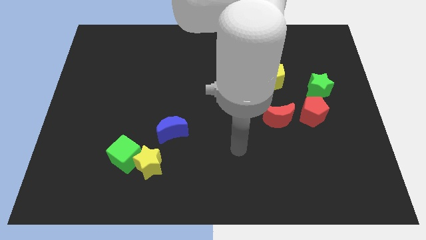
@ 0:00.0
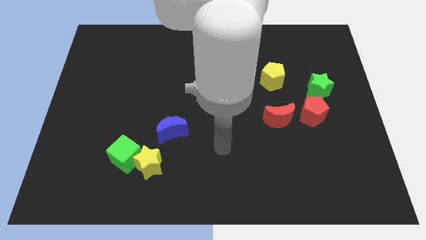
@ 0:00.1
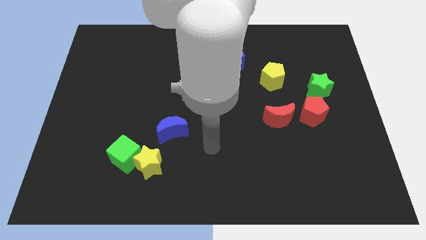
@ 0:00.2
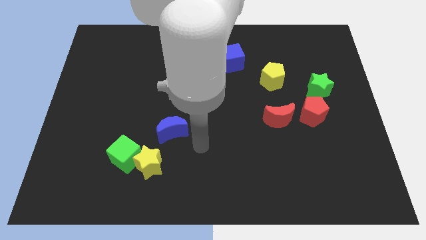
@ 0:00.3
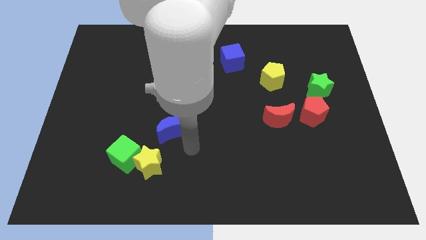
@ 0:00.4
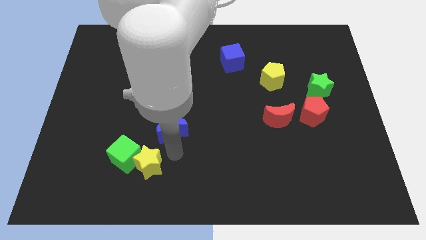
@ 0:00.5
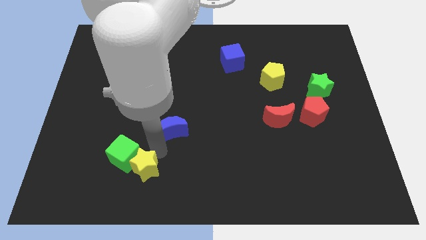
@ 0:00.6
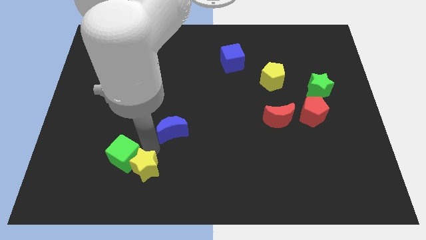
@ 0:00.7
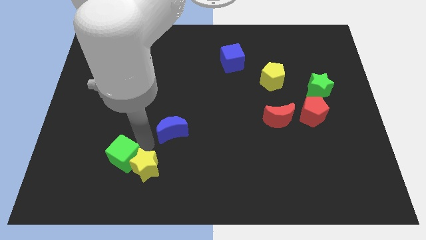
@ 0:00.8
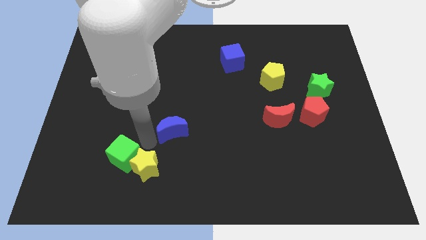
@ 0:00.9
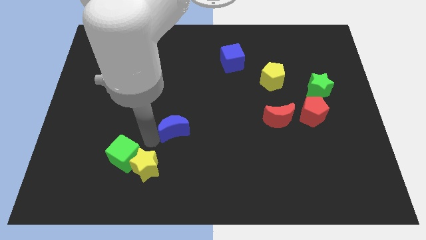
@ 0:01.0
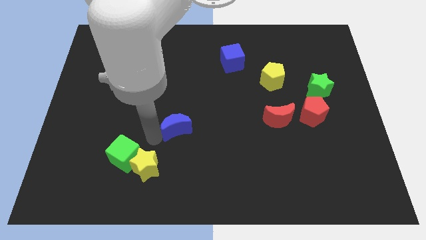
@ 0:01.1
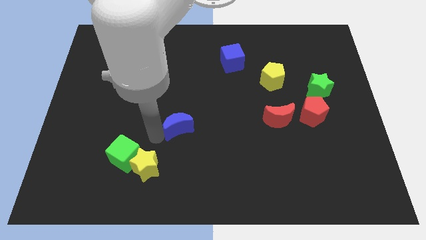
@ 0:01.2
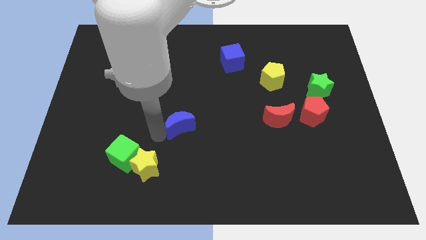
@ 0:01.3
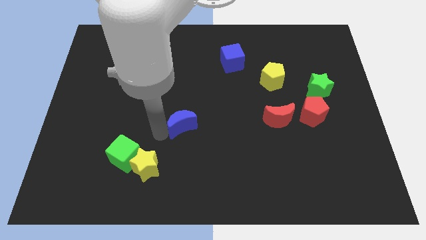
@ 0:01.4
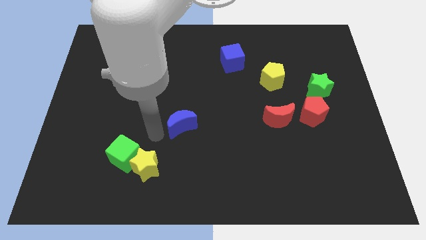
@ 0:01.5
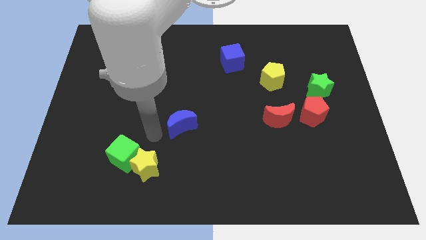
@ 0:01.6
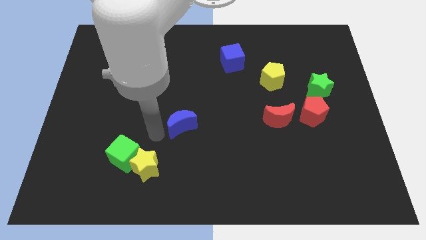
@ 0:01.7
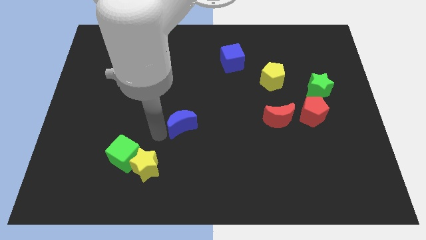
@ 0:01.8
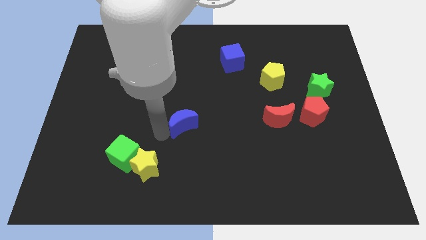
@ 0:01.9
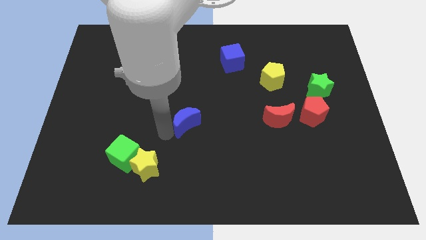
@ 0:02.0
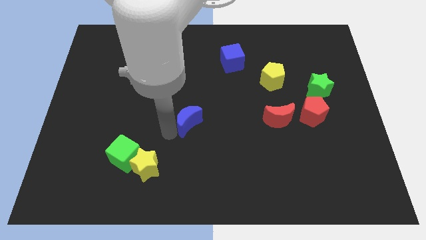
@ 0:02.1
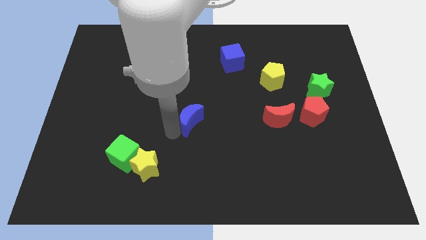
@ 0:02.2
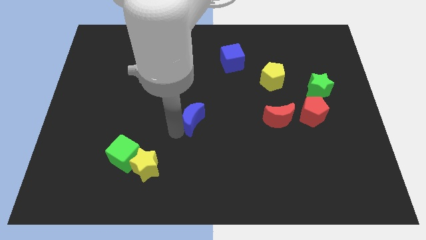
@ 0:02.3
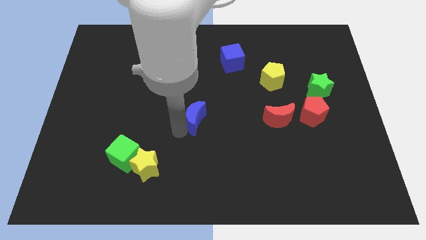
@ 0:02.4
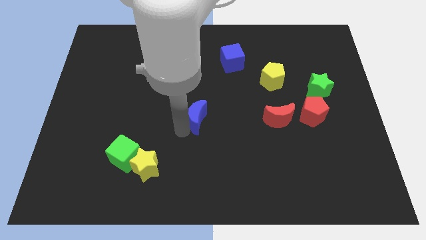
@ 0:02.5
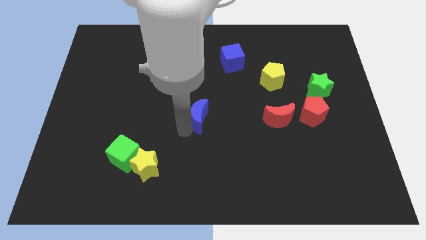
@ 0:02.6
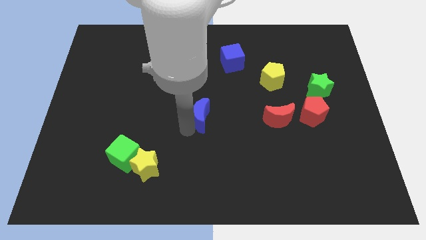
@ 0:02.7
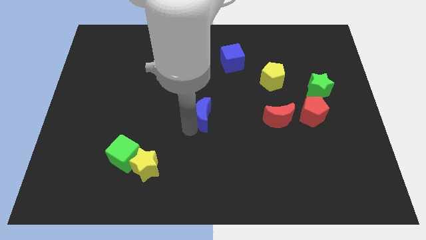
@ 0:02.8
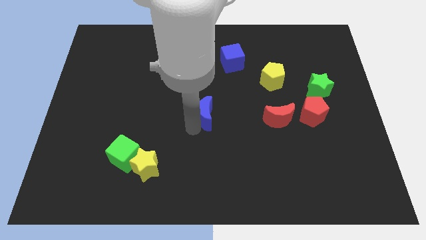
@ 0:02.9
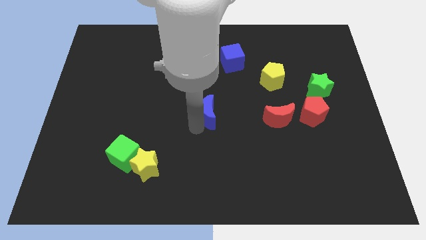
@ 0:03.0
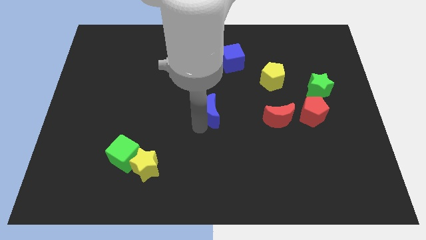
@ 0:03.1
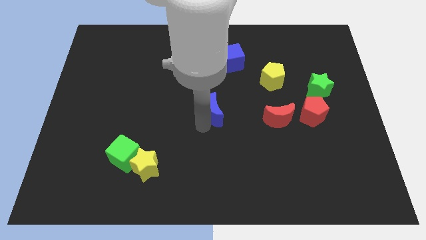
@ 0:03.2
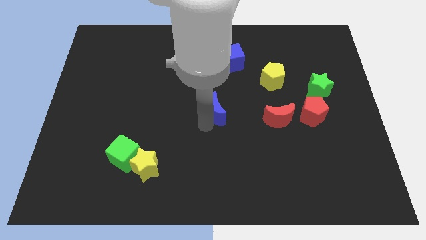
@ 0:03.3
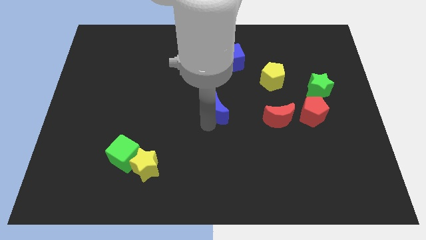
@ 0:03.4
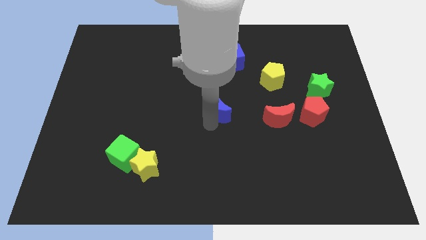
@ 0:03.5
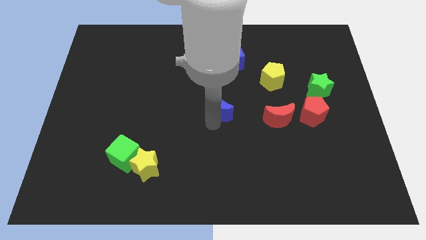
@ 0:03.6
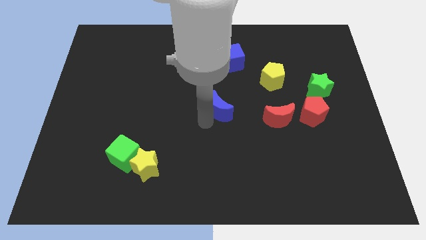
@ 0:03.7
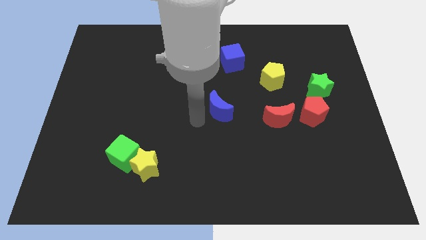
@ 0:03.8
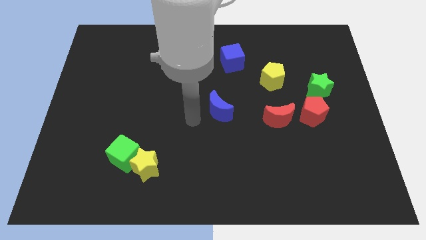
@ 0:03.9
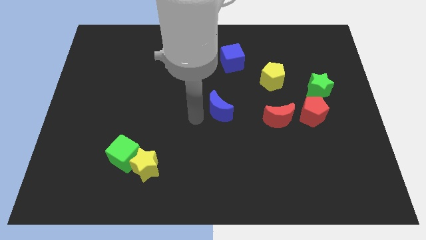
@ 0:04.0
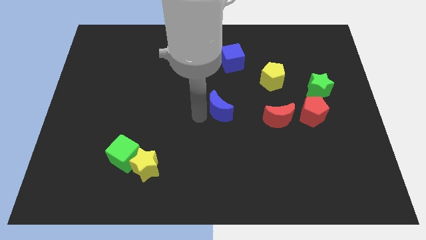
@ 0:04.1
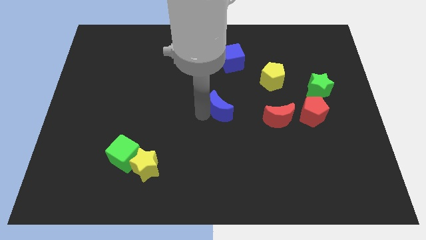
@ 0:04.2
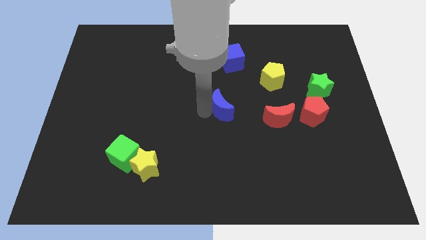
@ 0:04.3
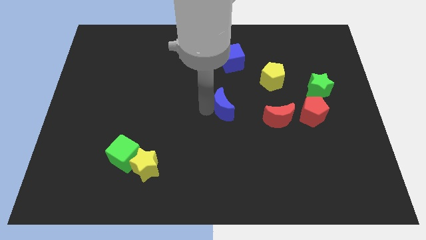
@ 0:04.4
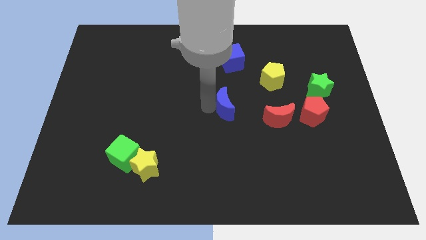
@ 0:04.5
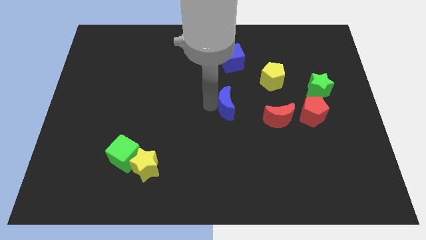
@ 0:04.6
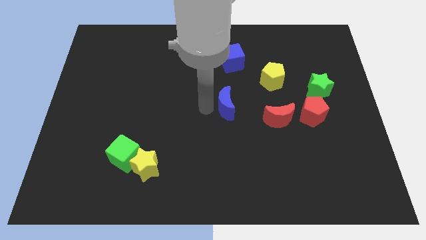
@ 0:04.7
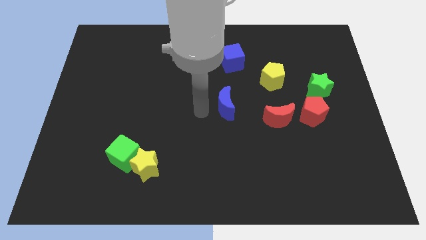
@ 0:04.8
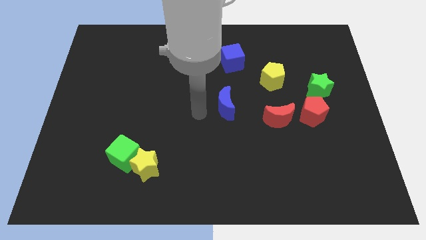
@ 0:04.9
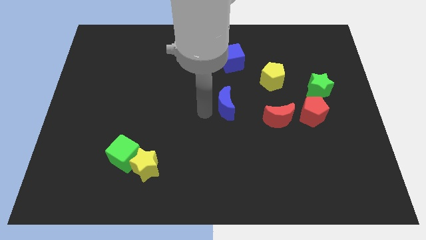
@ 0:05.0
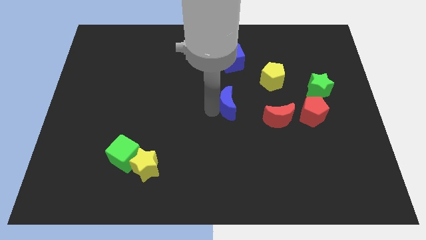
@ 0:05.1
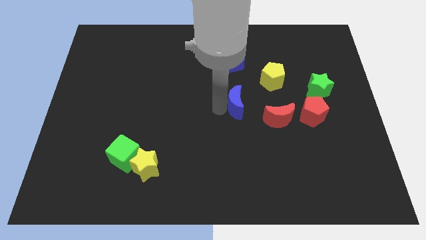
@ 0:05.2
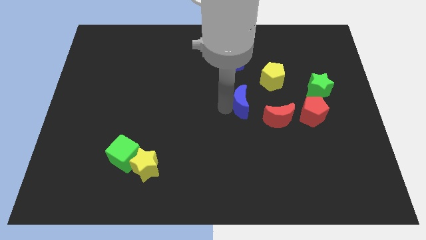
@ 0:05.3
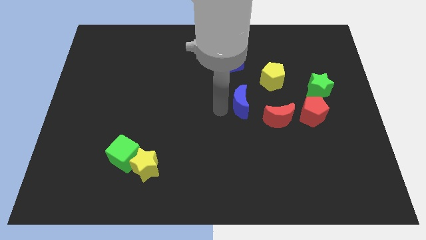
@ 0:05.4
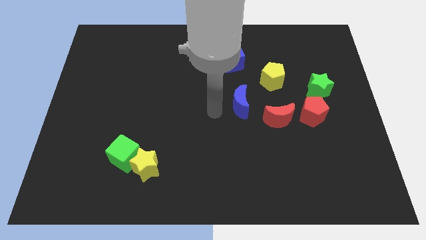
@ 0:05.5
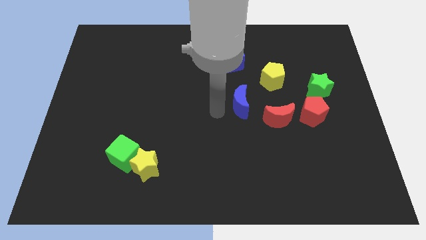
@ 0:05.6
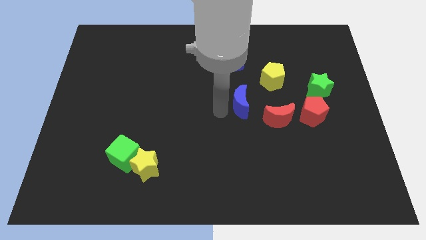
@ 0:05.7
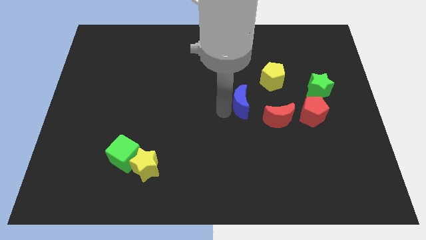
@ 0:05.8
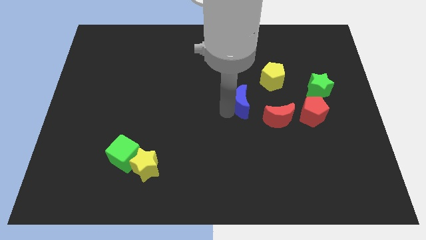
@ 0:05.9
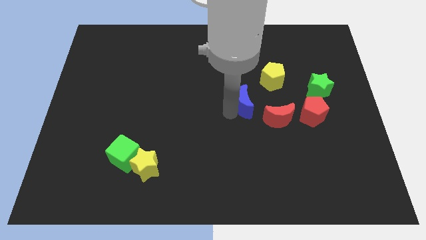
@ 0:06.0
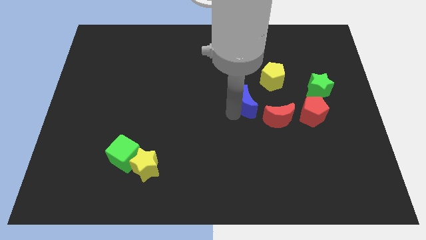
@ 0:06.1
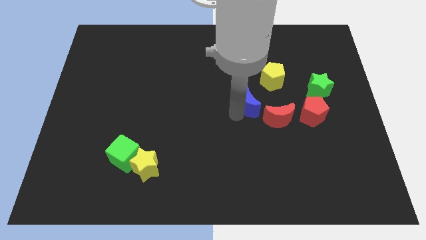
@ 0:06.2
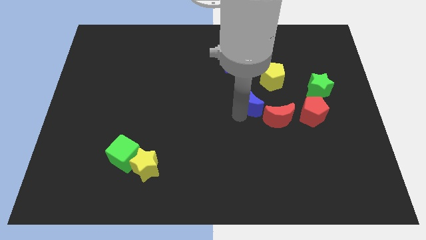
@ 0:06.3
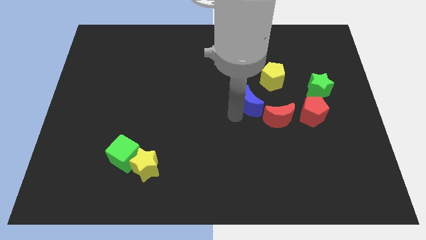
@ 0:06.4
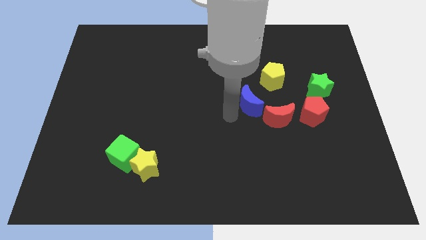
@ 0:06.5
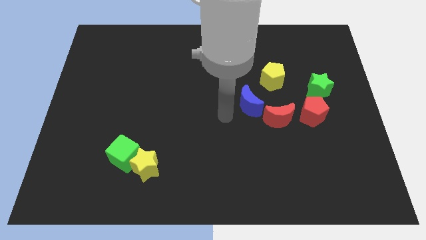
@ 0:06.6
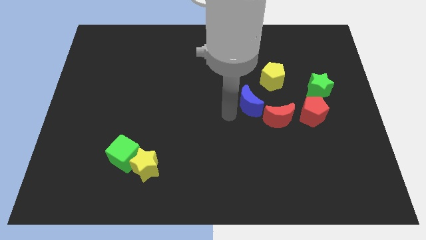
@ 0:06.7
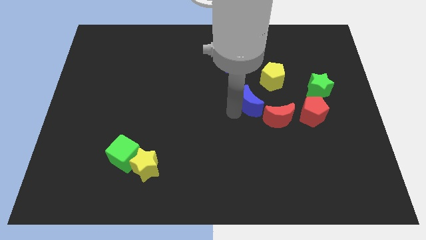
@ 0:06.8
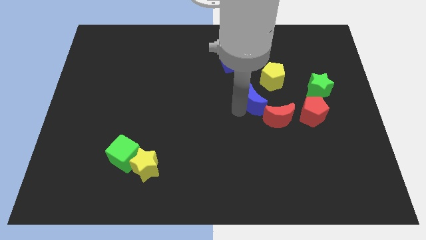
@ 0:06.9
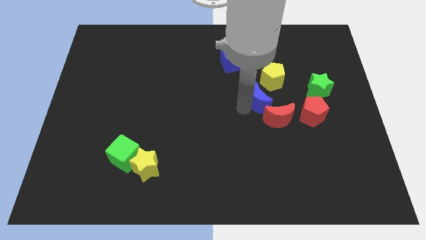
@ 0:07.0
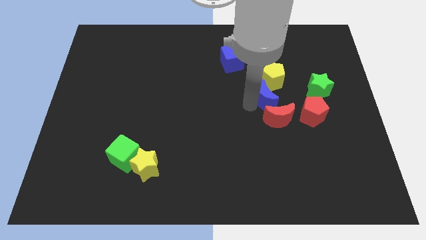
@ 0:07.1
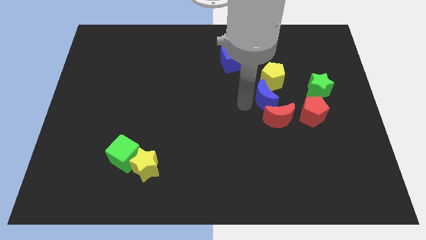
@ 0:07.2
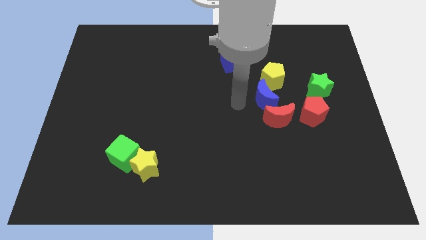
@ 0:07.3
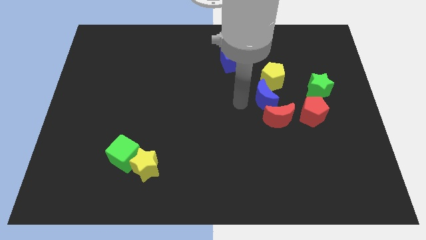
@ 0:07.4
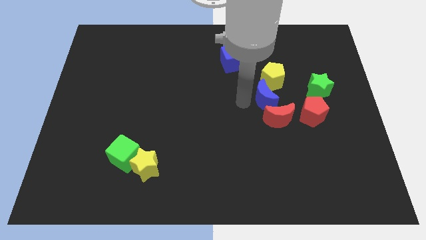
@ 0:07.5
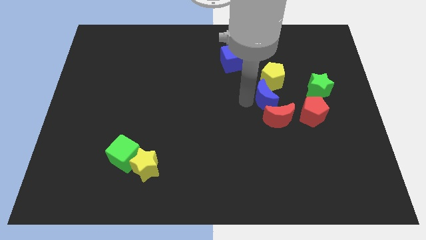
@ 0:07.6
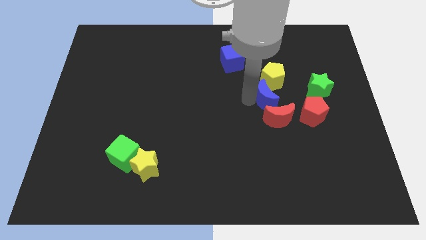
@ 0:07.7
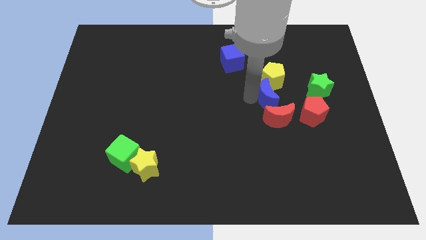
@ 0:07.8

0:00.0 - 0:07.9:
move the blue moon diagonally up and to the left of the red pentagon
